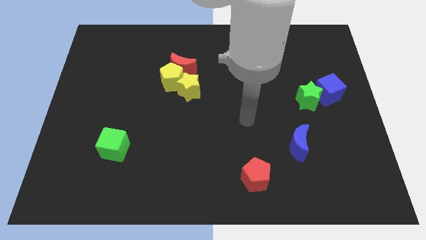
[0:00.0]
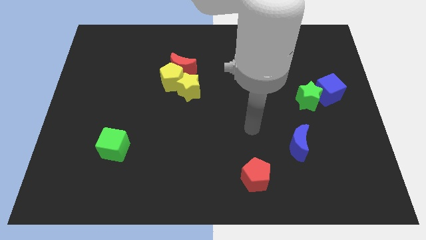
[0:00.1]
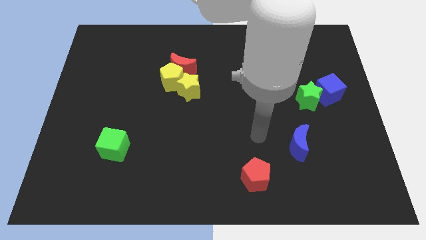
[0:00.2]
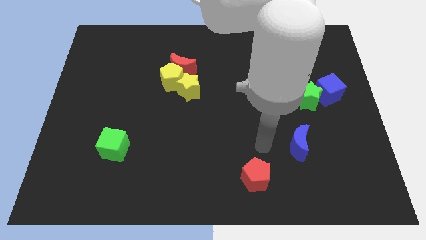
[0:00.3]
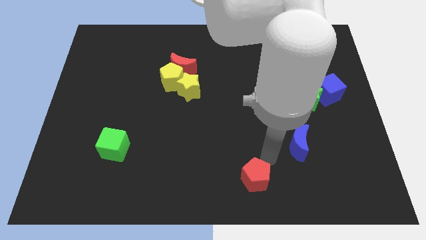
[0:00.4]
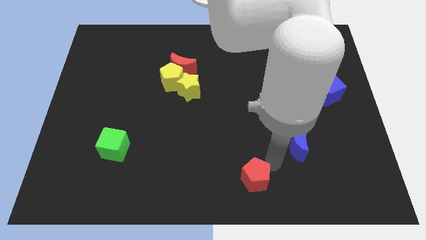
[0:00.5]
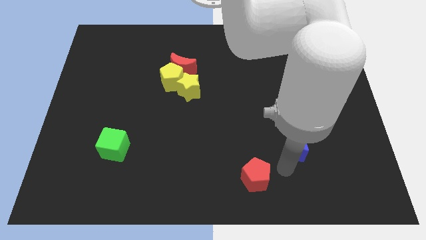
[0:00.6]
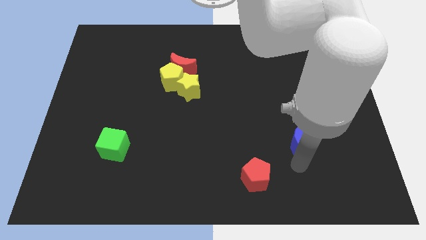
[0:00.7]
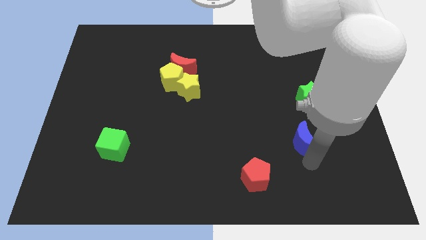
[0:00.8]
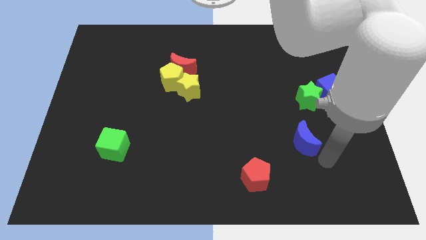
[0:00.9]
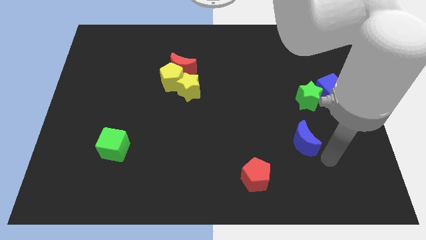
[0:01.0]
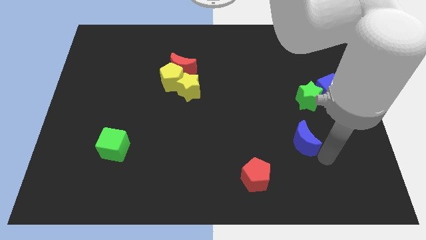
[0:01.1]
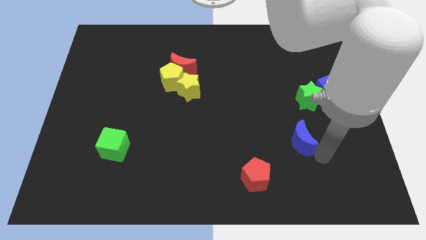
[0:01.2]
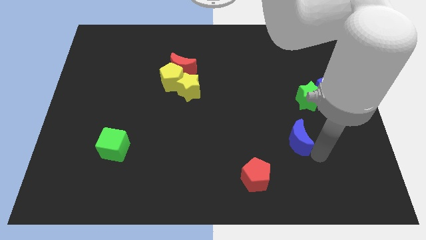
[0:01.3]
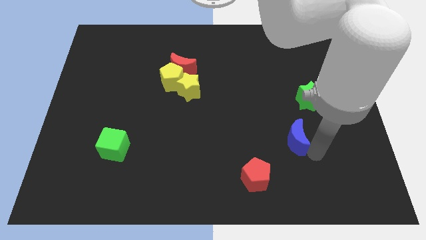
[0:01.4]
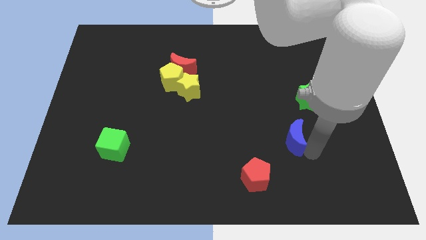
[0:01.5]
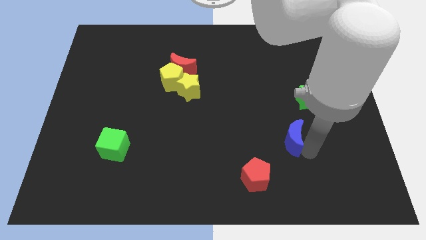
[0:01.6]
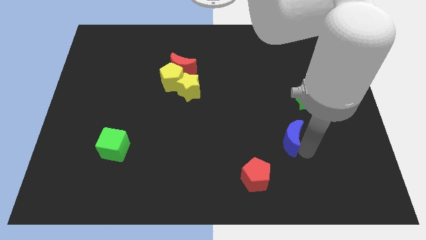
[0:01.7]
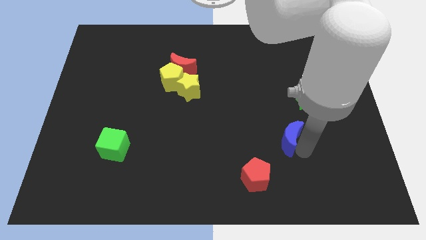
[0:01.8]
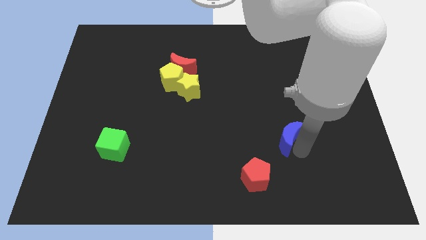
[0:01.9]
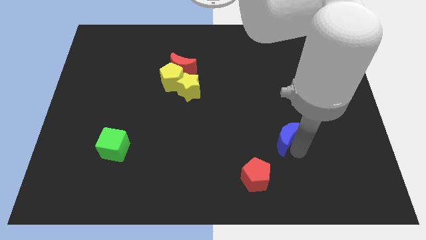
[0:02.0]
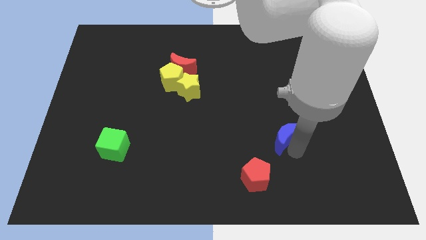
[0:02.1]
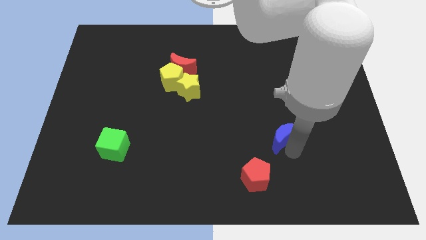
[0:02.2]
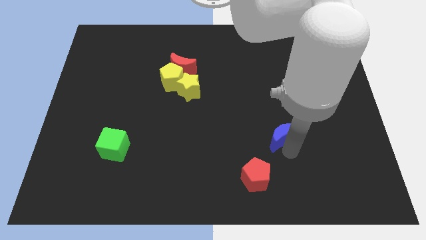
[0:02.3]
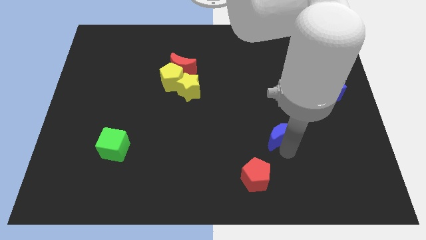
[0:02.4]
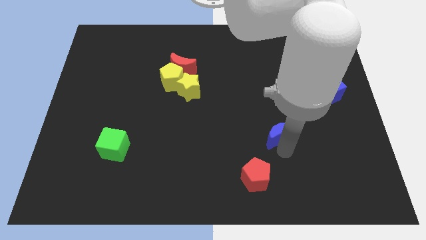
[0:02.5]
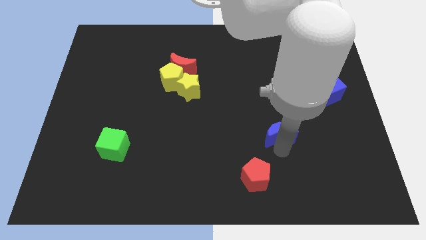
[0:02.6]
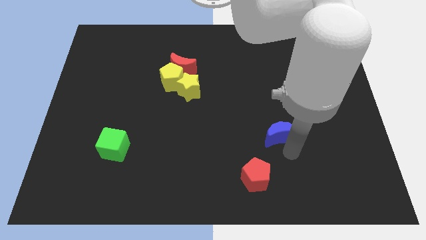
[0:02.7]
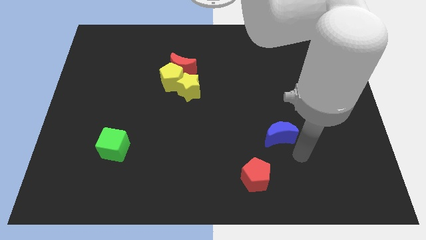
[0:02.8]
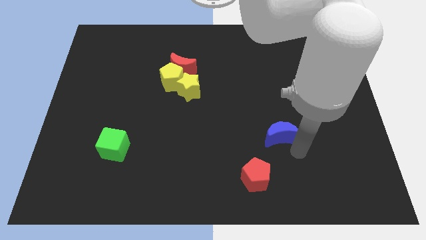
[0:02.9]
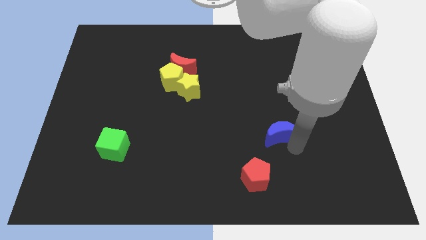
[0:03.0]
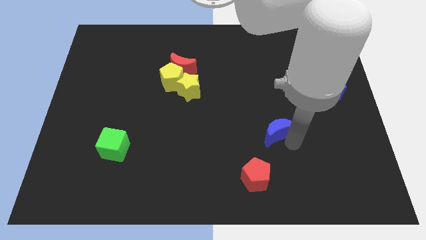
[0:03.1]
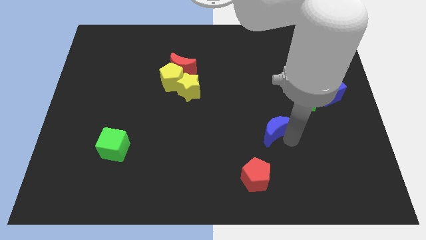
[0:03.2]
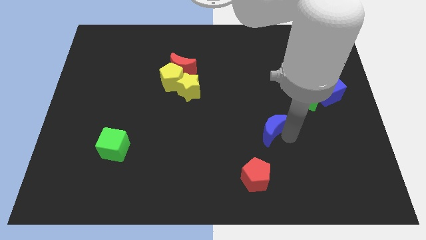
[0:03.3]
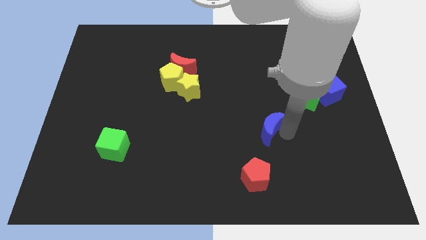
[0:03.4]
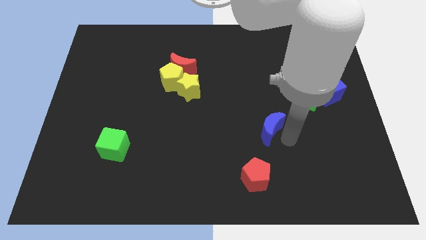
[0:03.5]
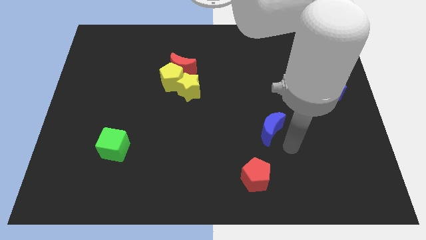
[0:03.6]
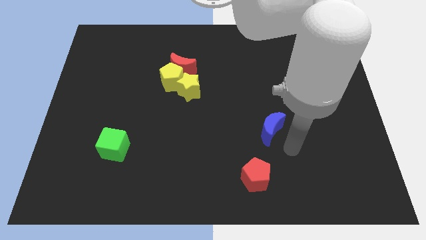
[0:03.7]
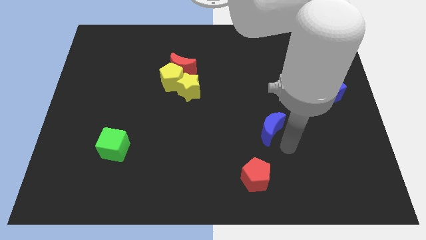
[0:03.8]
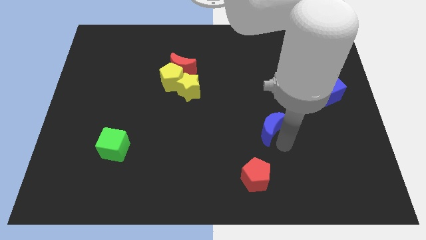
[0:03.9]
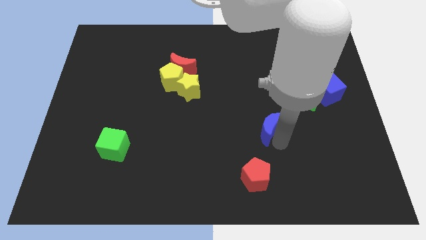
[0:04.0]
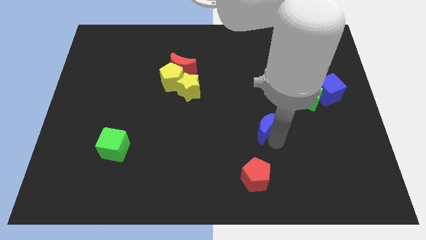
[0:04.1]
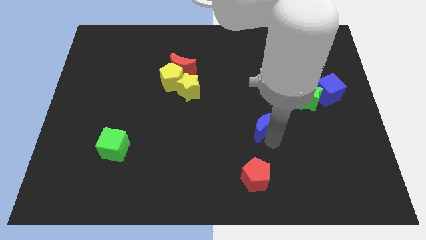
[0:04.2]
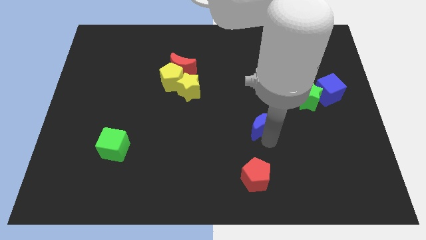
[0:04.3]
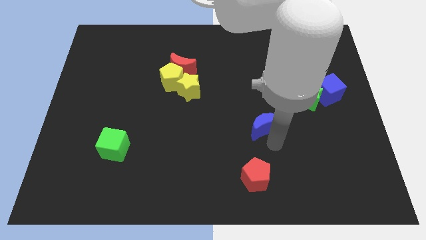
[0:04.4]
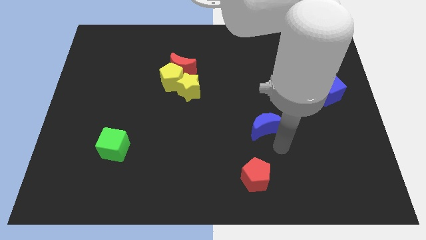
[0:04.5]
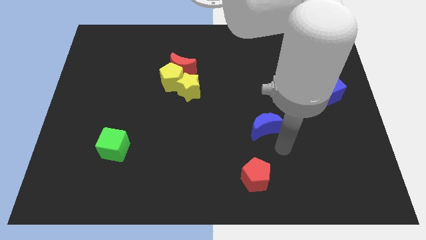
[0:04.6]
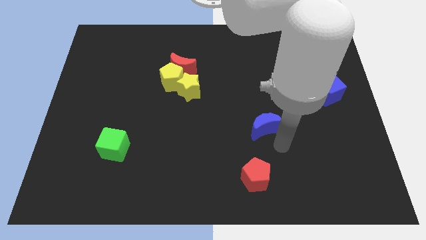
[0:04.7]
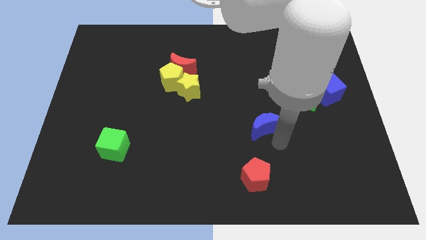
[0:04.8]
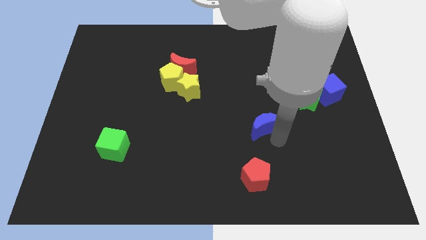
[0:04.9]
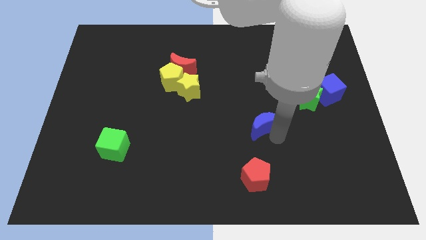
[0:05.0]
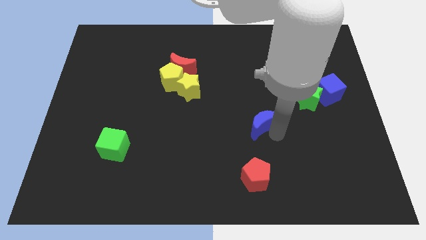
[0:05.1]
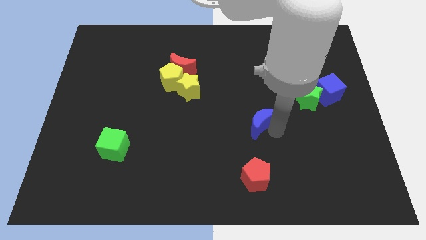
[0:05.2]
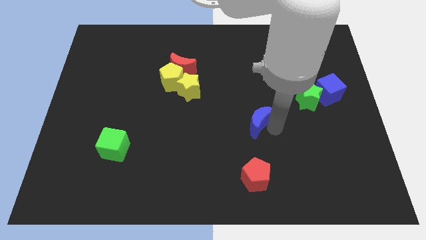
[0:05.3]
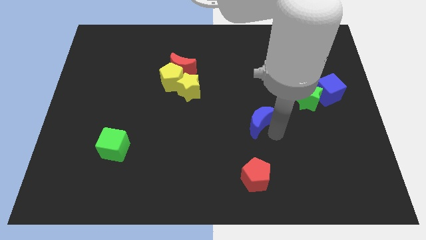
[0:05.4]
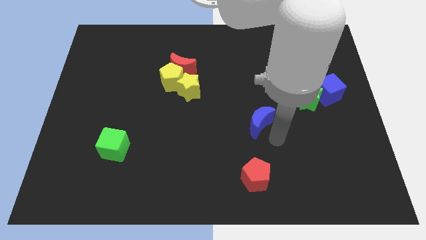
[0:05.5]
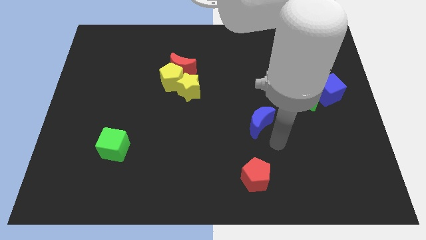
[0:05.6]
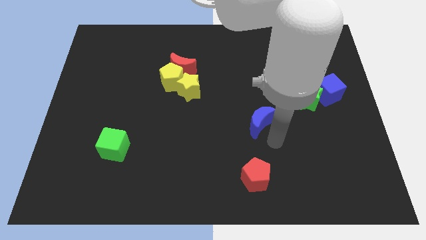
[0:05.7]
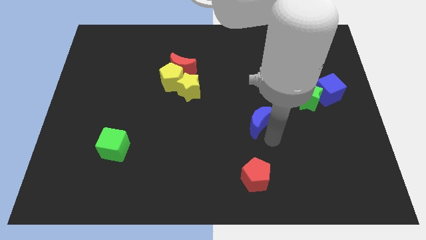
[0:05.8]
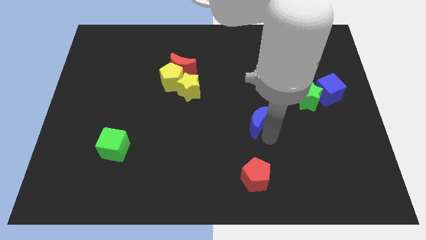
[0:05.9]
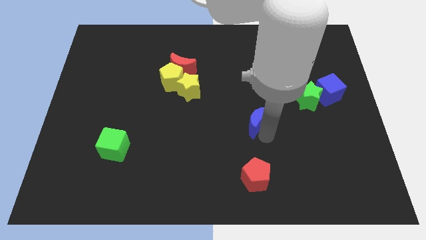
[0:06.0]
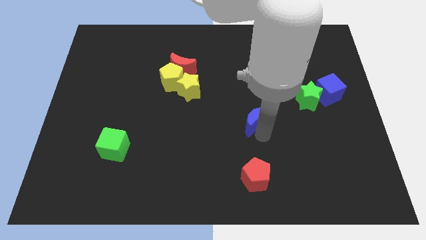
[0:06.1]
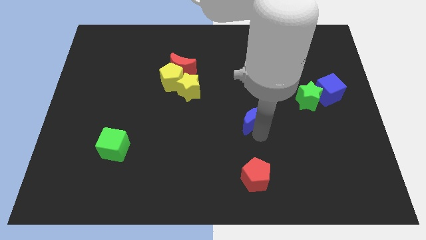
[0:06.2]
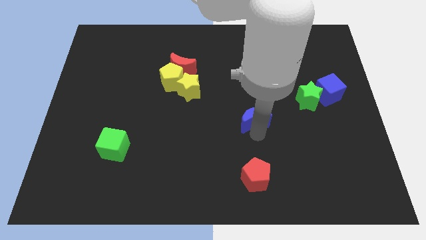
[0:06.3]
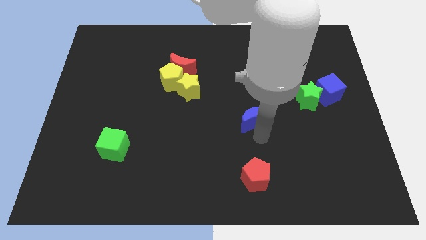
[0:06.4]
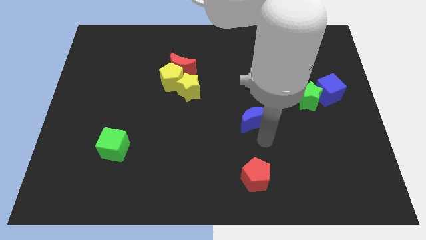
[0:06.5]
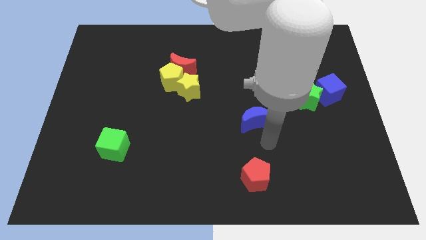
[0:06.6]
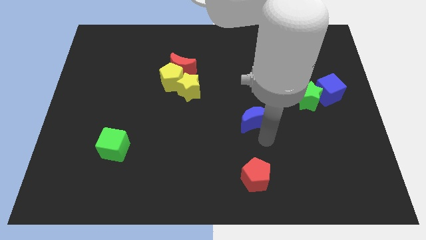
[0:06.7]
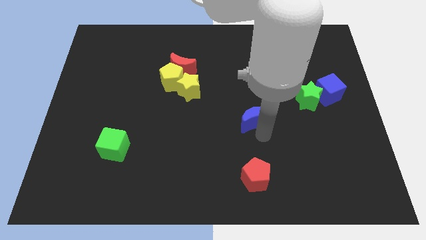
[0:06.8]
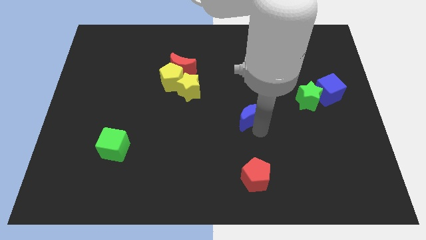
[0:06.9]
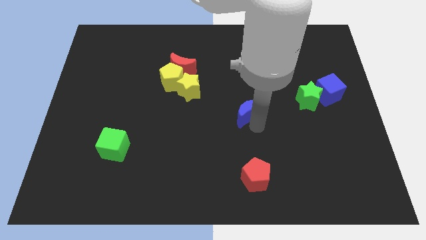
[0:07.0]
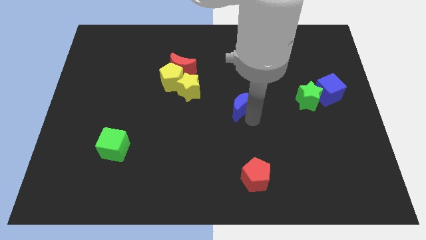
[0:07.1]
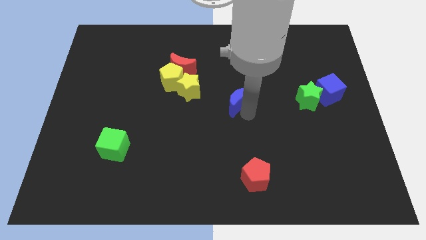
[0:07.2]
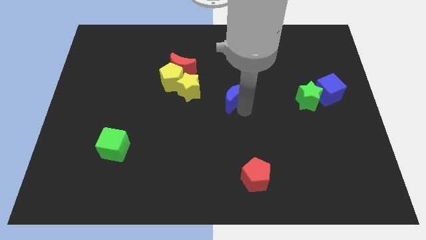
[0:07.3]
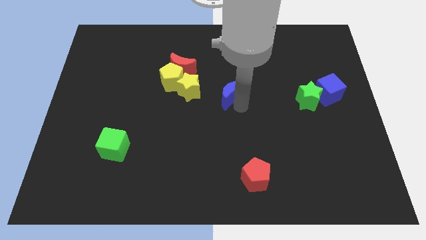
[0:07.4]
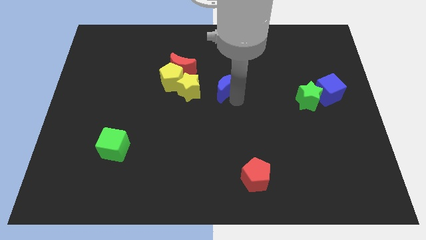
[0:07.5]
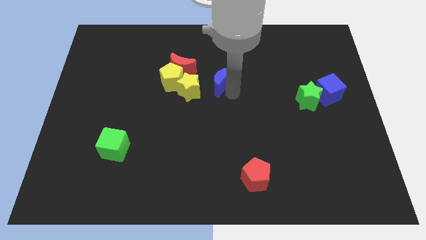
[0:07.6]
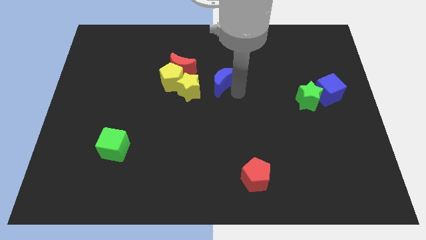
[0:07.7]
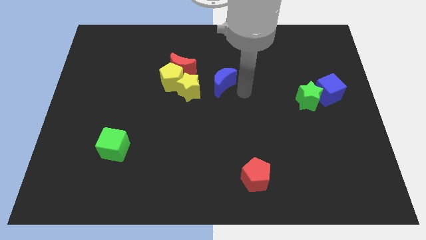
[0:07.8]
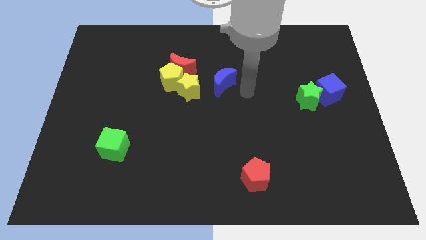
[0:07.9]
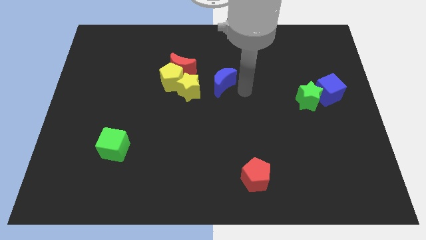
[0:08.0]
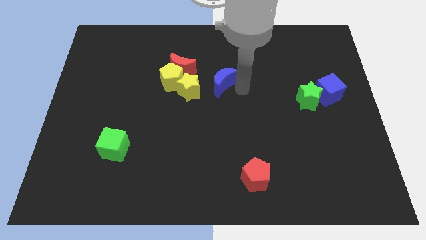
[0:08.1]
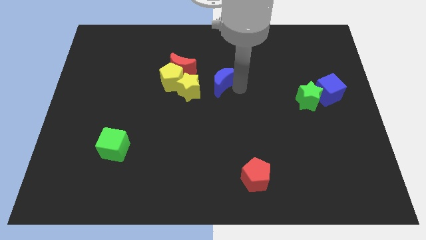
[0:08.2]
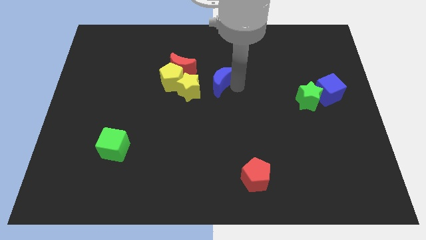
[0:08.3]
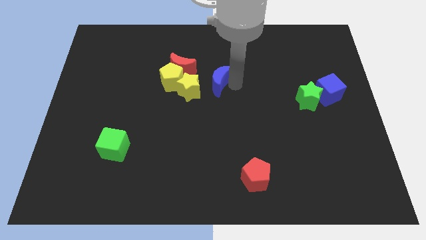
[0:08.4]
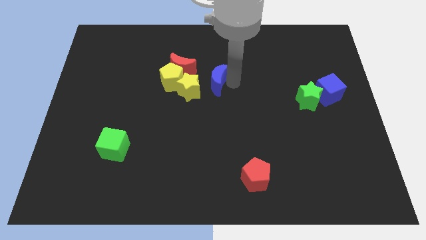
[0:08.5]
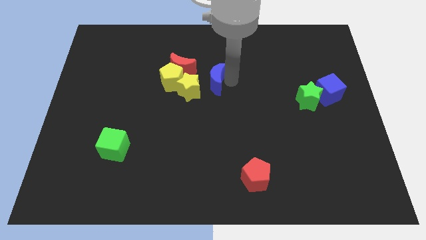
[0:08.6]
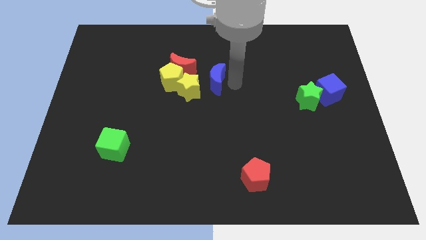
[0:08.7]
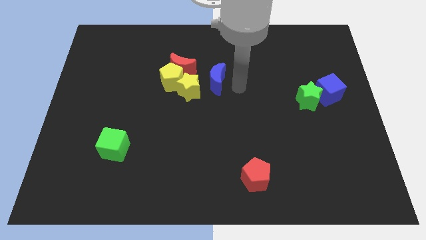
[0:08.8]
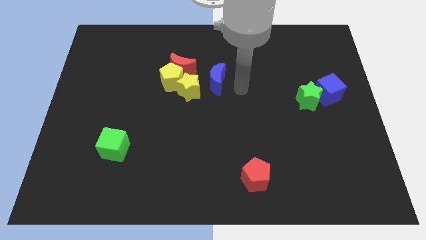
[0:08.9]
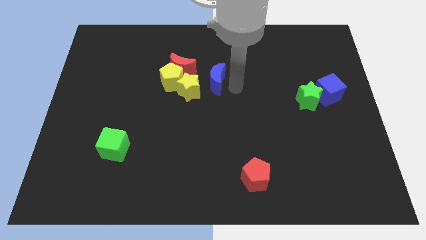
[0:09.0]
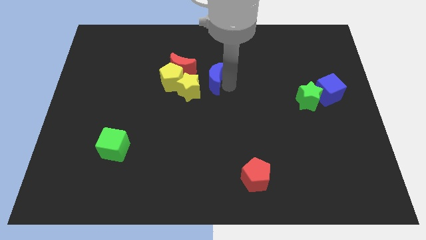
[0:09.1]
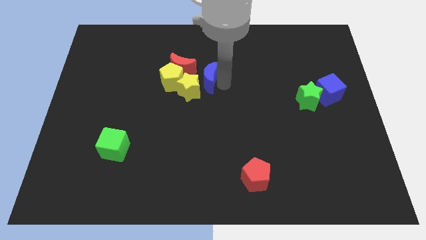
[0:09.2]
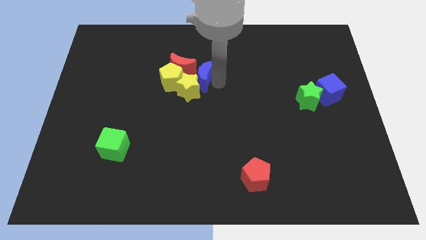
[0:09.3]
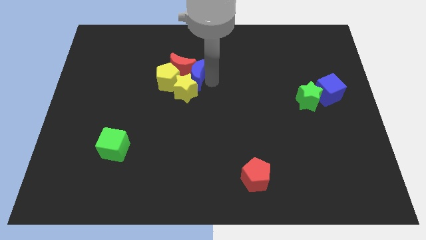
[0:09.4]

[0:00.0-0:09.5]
put the blue moon next to the red moon
